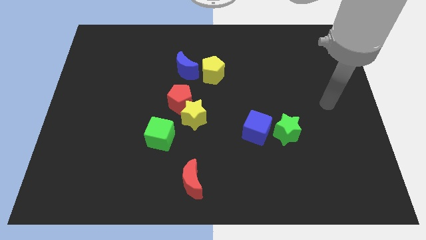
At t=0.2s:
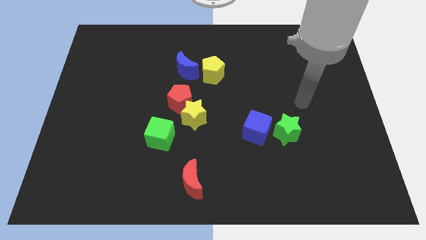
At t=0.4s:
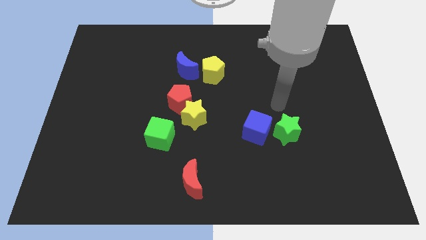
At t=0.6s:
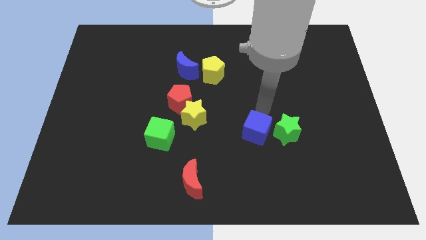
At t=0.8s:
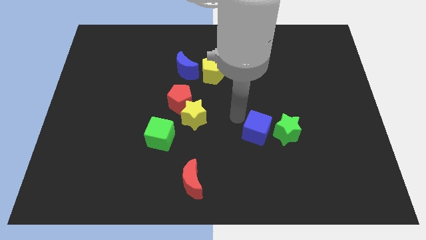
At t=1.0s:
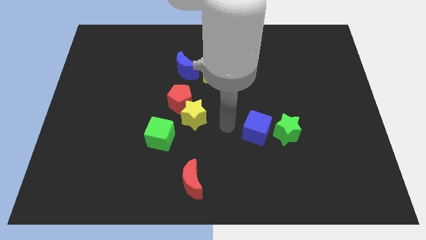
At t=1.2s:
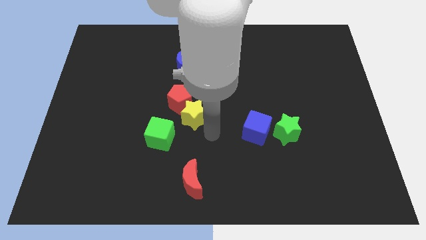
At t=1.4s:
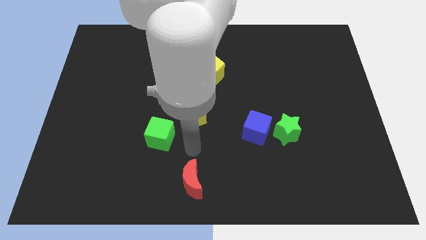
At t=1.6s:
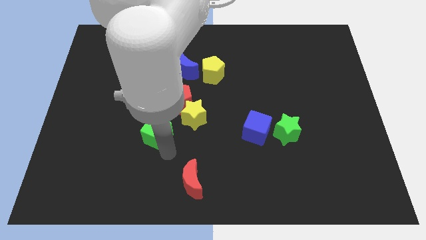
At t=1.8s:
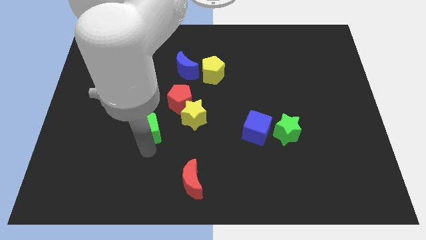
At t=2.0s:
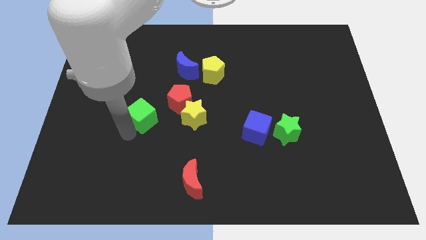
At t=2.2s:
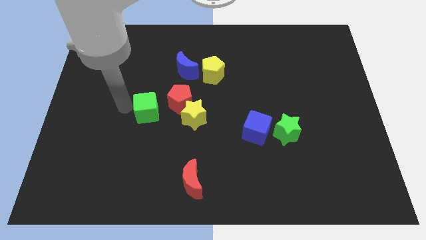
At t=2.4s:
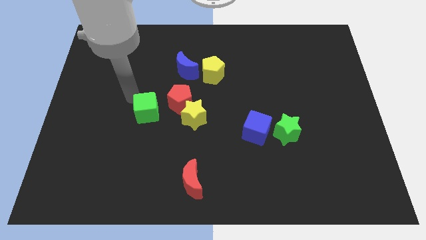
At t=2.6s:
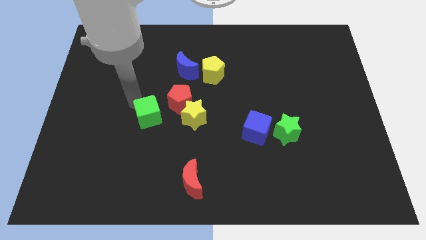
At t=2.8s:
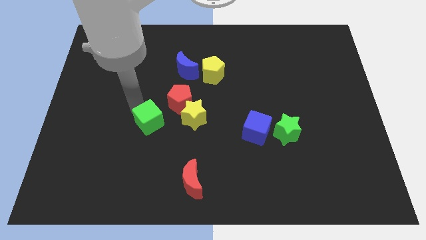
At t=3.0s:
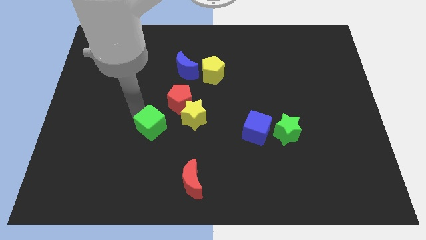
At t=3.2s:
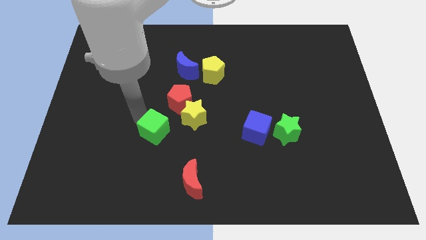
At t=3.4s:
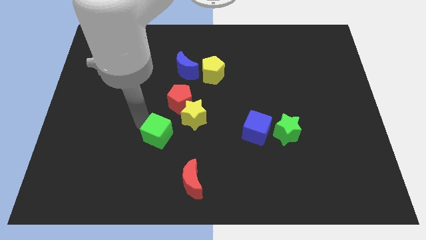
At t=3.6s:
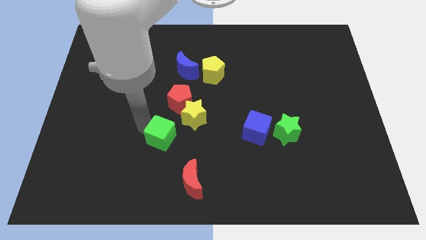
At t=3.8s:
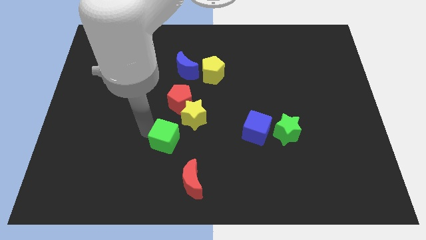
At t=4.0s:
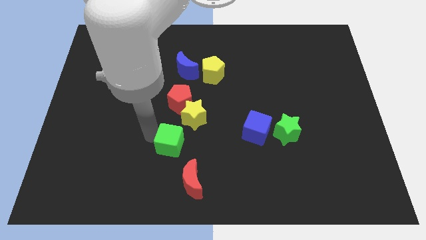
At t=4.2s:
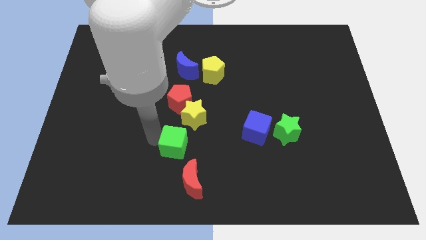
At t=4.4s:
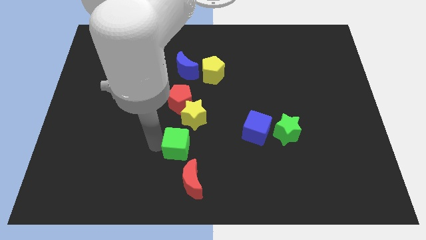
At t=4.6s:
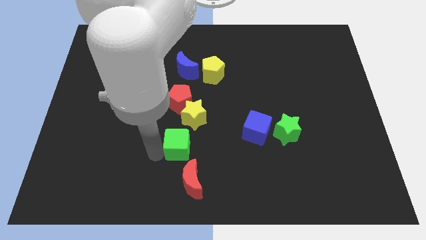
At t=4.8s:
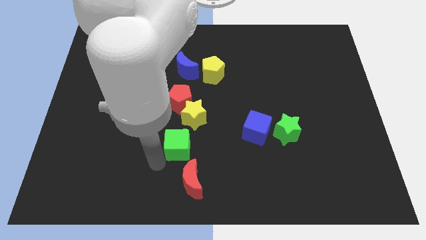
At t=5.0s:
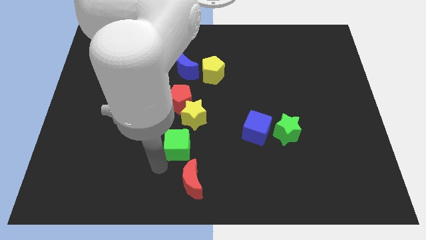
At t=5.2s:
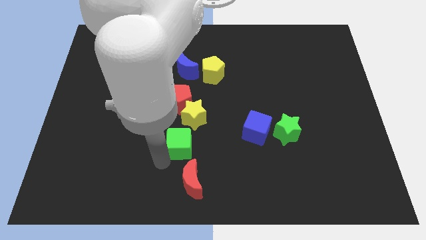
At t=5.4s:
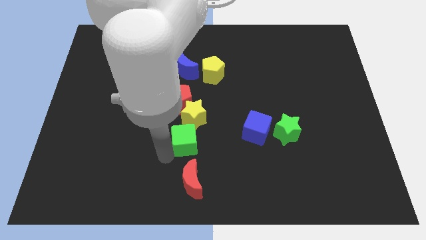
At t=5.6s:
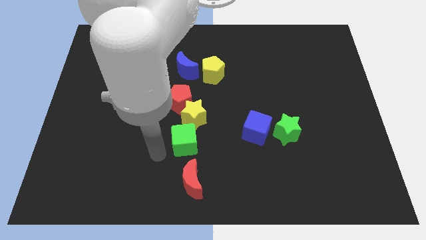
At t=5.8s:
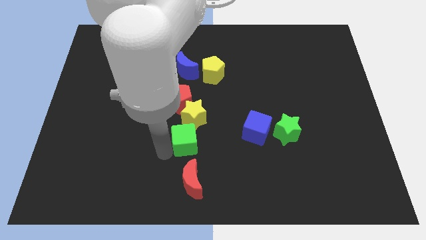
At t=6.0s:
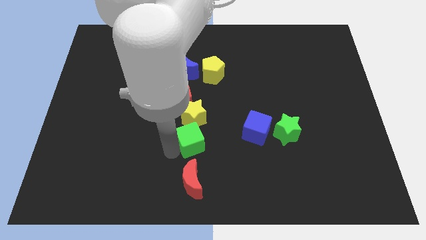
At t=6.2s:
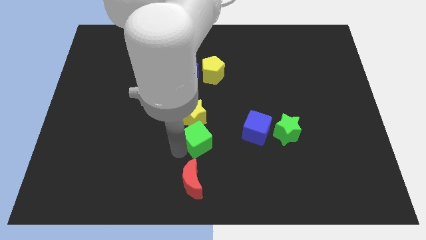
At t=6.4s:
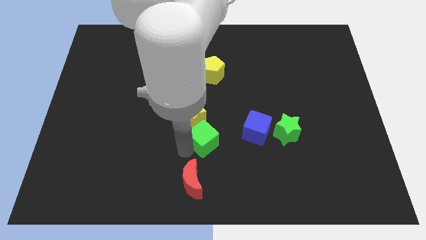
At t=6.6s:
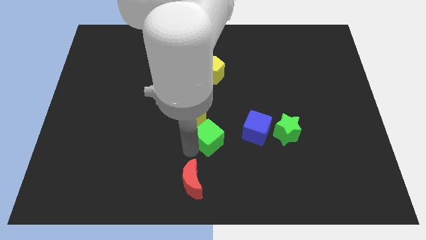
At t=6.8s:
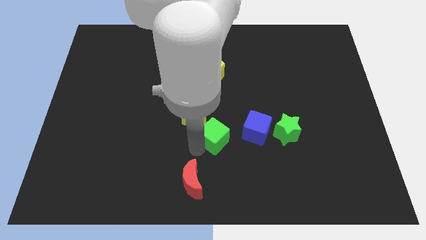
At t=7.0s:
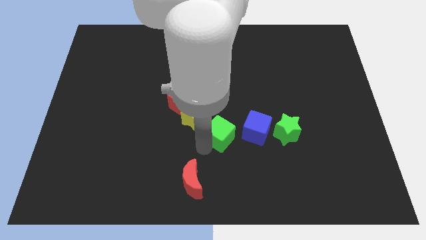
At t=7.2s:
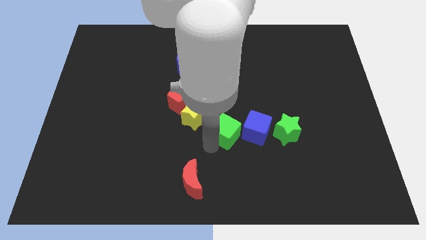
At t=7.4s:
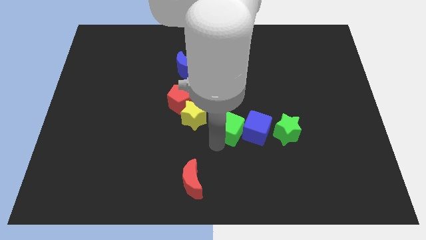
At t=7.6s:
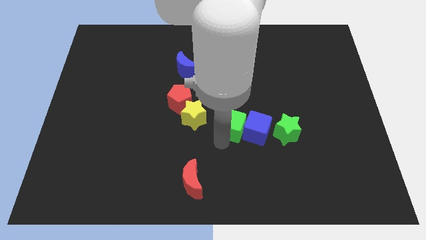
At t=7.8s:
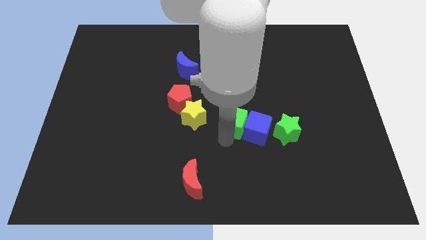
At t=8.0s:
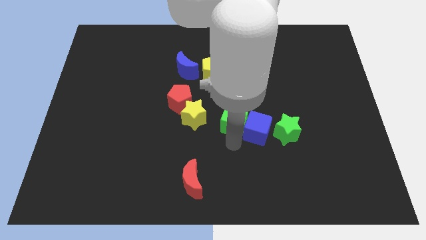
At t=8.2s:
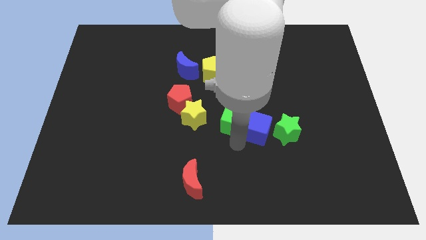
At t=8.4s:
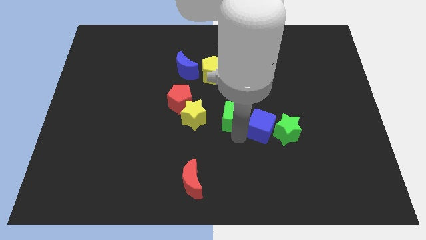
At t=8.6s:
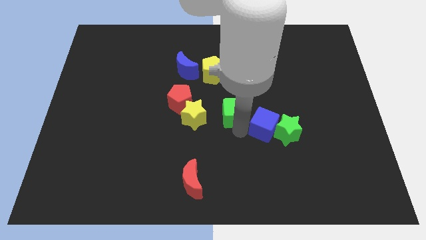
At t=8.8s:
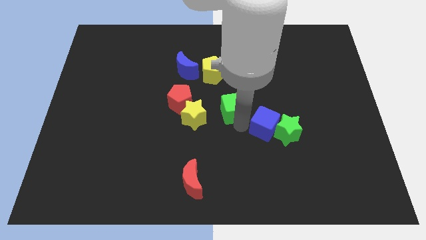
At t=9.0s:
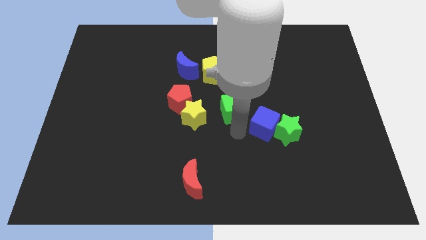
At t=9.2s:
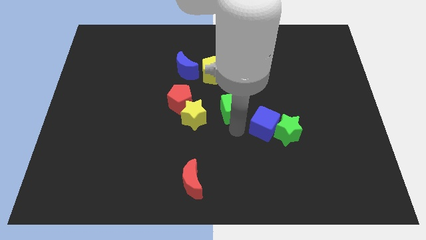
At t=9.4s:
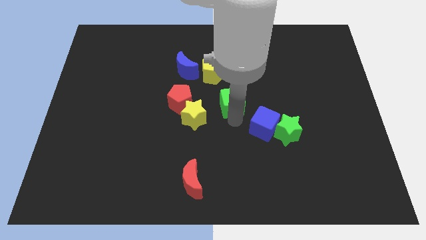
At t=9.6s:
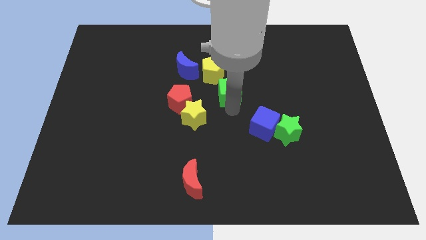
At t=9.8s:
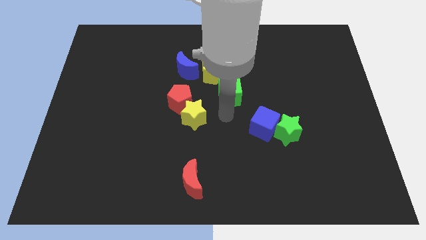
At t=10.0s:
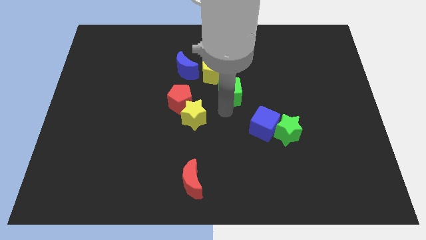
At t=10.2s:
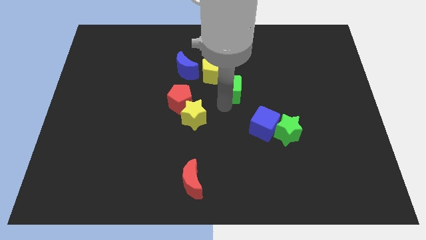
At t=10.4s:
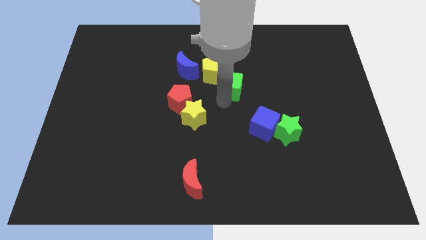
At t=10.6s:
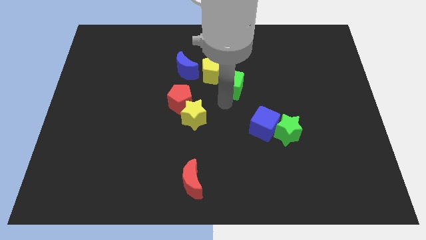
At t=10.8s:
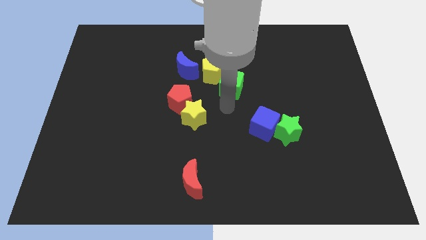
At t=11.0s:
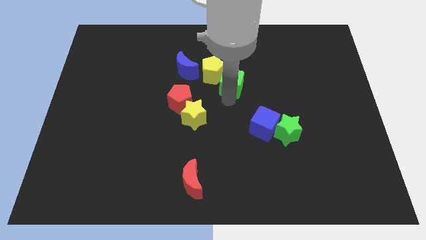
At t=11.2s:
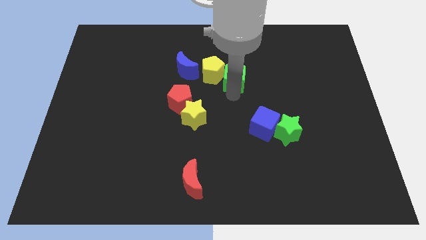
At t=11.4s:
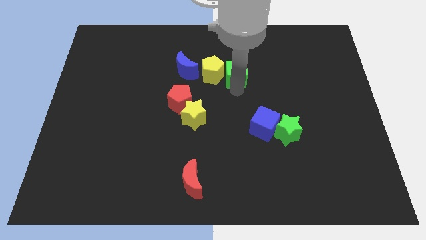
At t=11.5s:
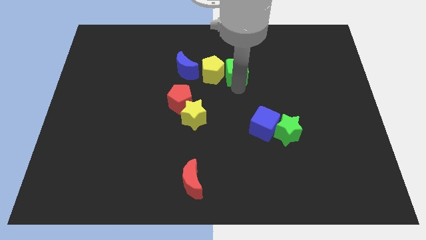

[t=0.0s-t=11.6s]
put the green cube diagonally up and to the right of the yellow pentagon

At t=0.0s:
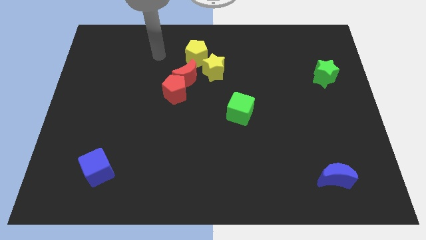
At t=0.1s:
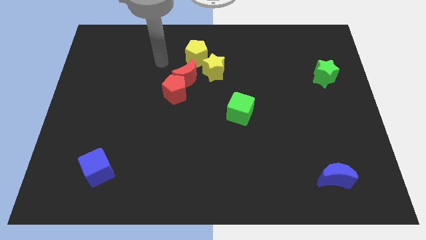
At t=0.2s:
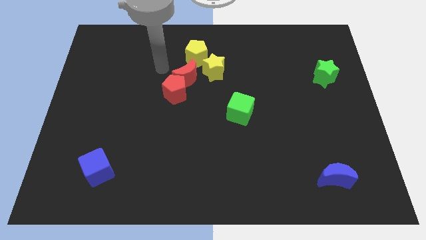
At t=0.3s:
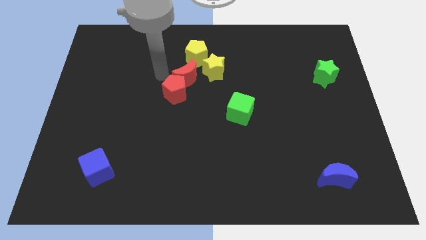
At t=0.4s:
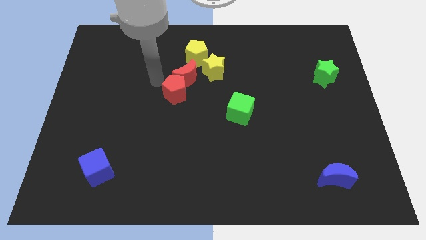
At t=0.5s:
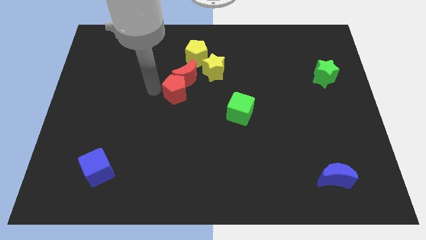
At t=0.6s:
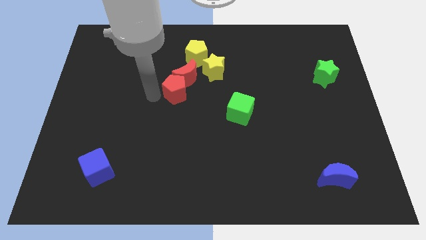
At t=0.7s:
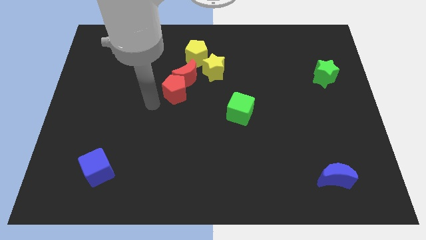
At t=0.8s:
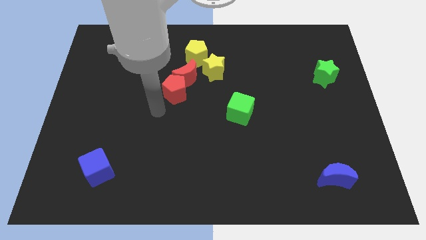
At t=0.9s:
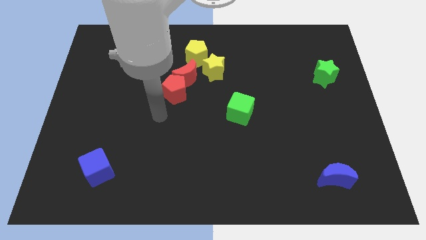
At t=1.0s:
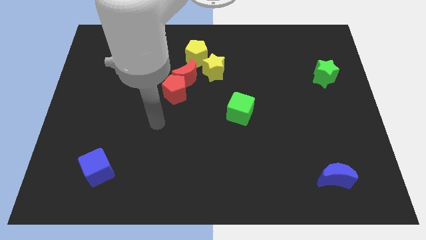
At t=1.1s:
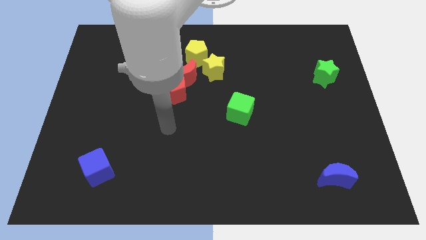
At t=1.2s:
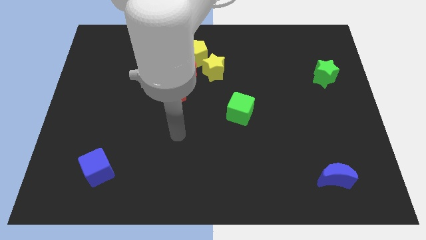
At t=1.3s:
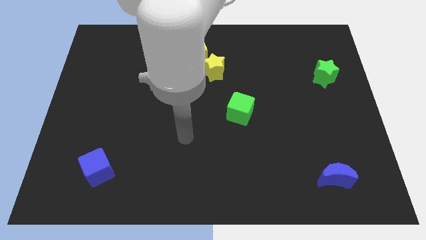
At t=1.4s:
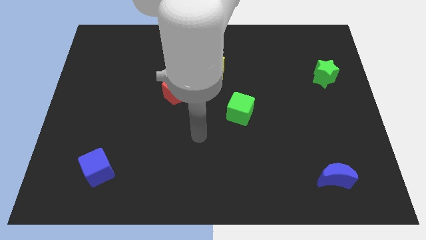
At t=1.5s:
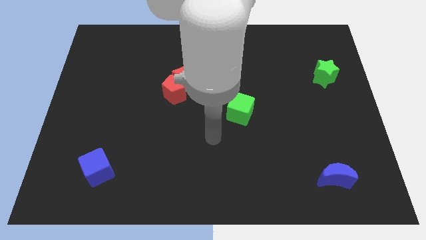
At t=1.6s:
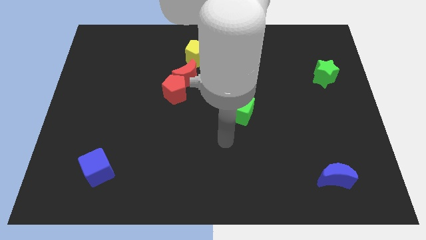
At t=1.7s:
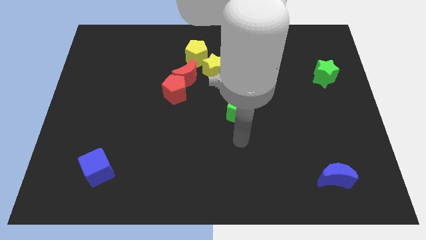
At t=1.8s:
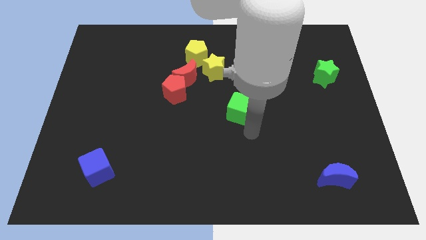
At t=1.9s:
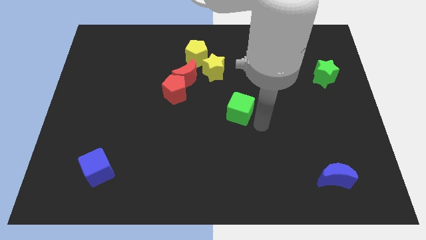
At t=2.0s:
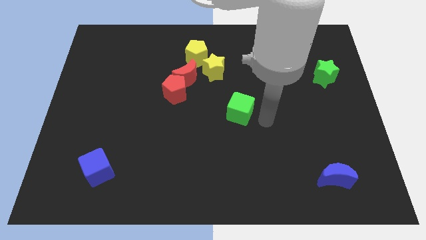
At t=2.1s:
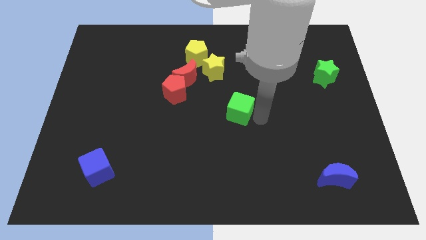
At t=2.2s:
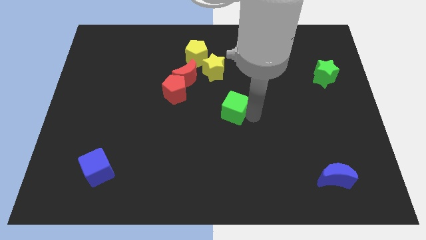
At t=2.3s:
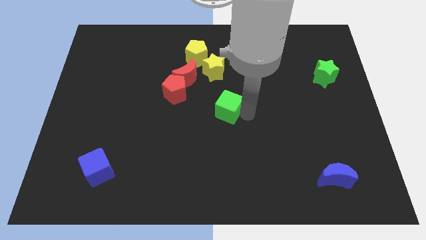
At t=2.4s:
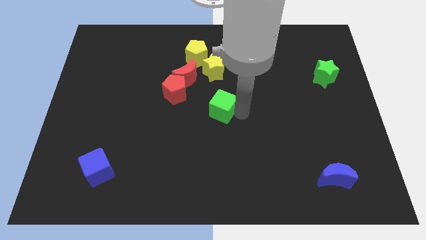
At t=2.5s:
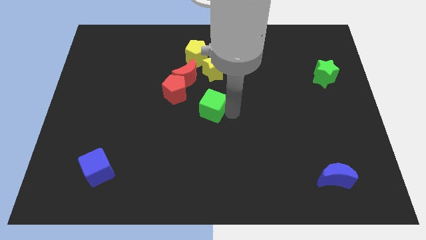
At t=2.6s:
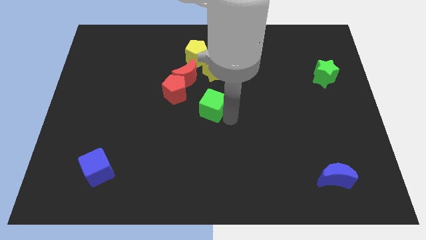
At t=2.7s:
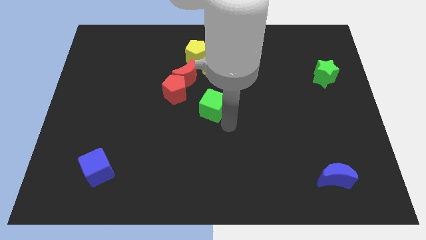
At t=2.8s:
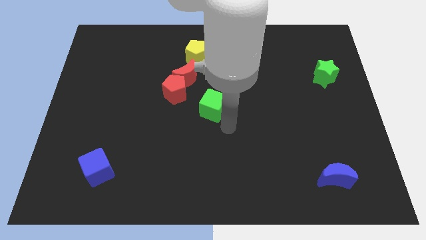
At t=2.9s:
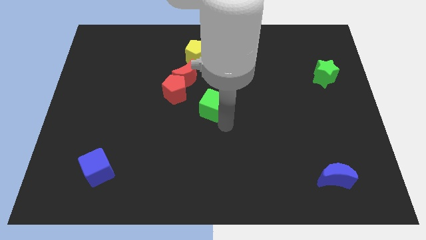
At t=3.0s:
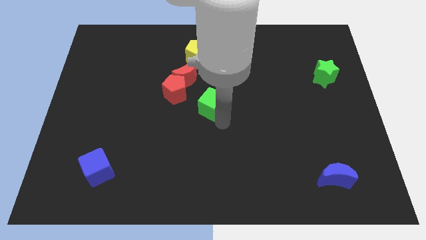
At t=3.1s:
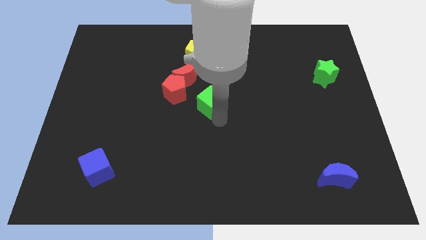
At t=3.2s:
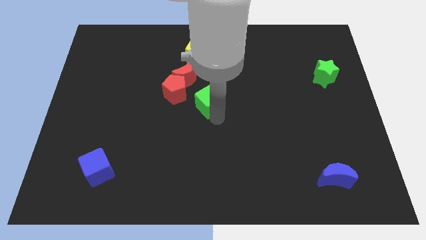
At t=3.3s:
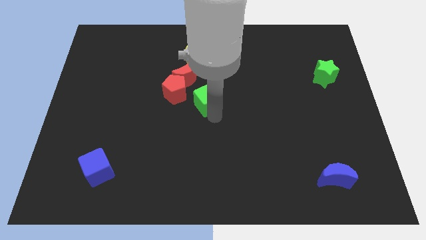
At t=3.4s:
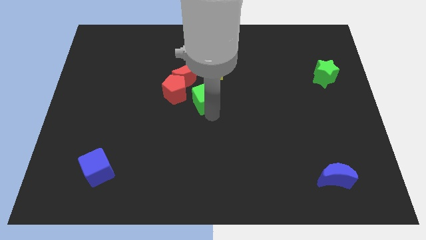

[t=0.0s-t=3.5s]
slide the green cube below the yellow pentagon
